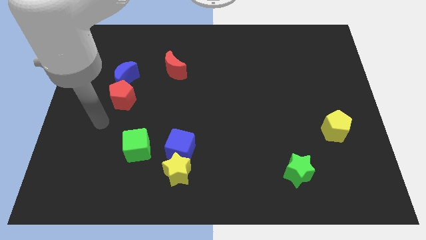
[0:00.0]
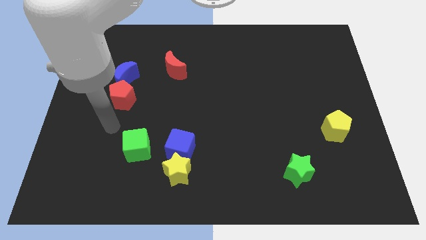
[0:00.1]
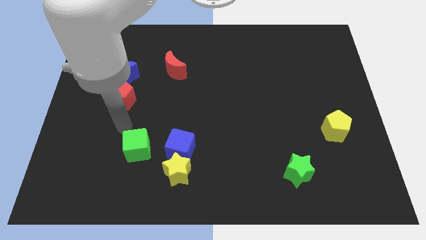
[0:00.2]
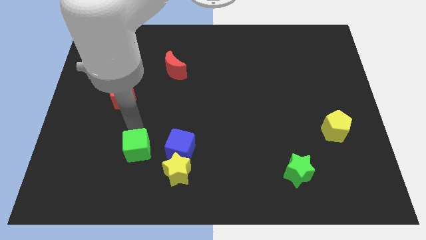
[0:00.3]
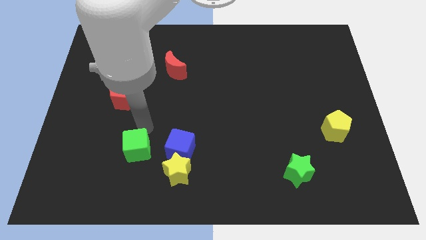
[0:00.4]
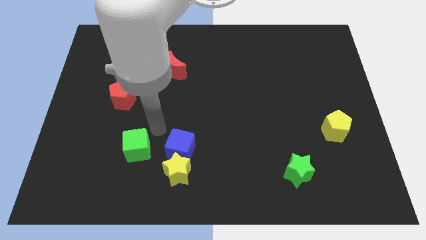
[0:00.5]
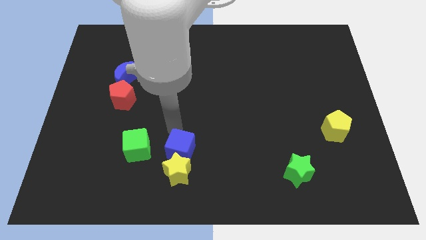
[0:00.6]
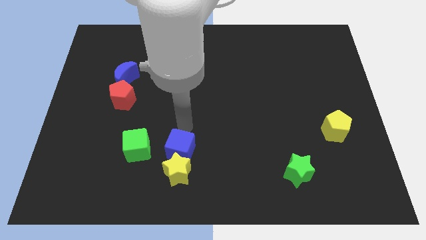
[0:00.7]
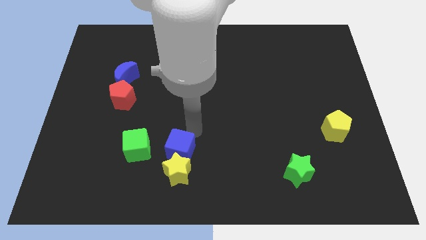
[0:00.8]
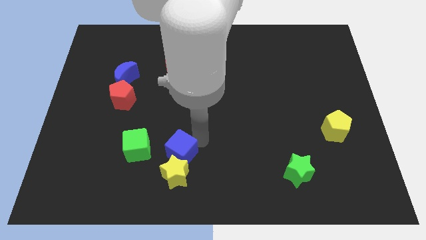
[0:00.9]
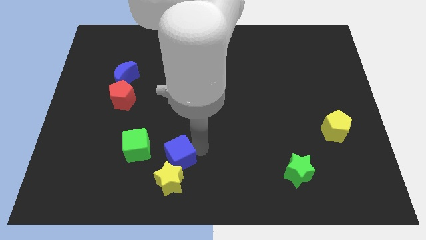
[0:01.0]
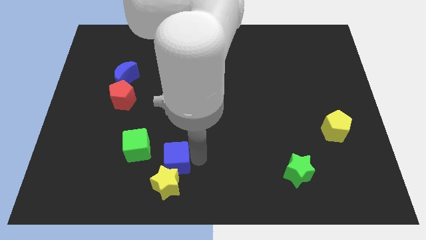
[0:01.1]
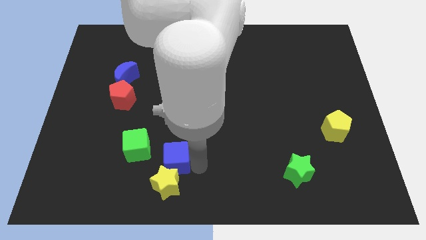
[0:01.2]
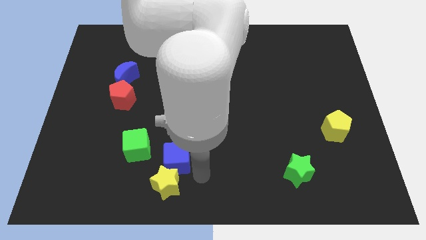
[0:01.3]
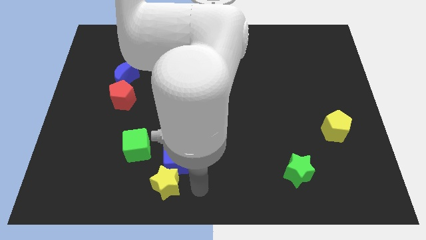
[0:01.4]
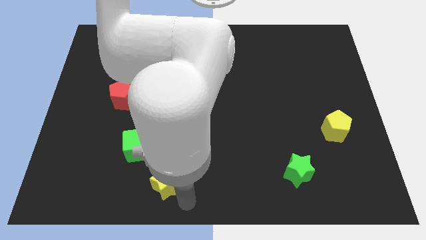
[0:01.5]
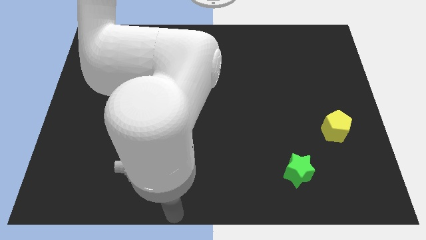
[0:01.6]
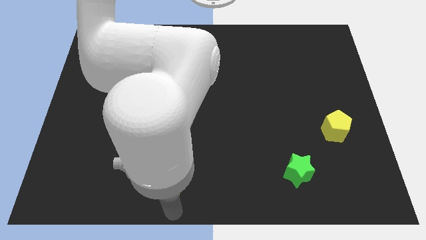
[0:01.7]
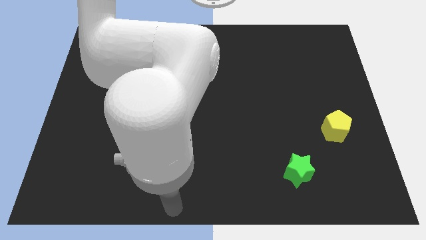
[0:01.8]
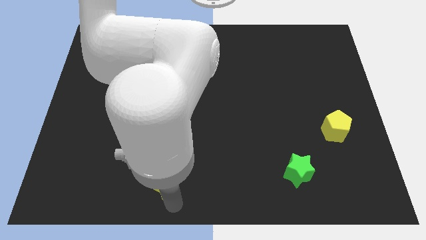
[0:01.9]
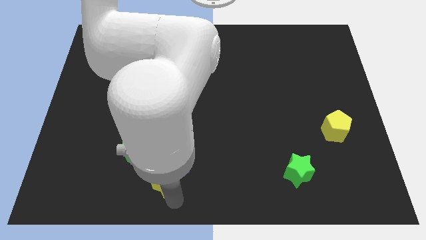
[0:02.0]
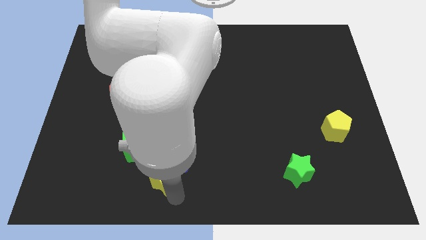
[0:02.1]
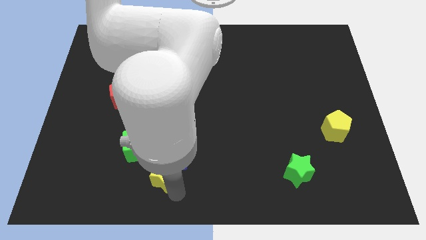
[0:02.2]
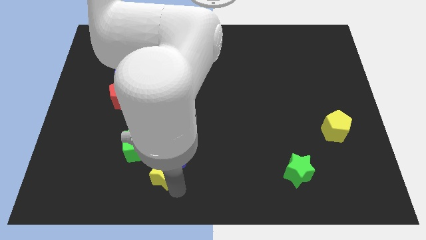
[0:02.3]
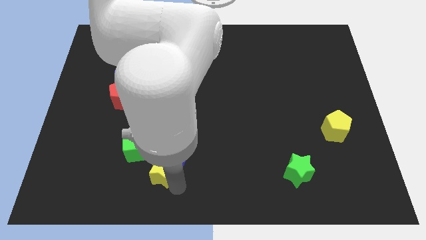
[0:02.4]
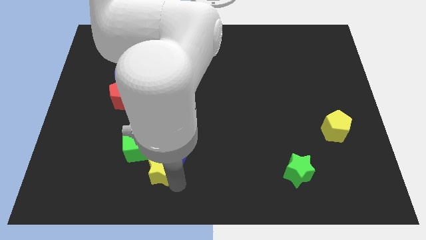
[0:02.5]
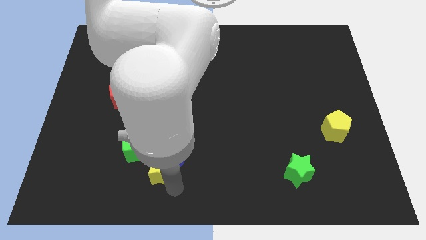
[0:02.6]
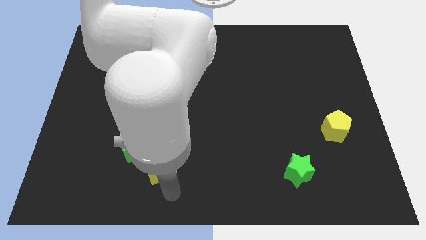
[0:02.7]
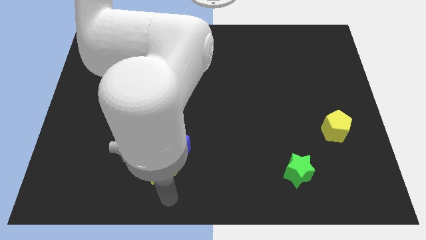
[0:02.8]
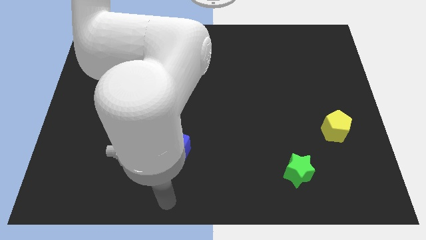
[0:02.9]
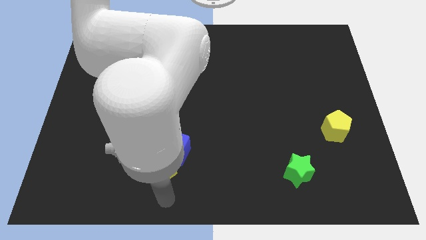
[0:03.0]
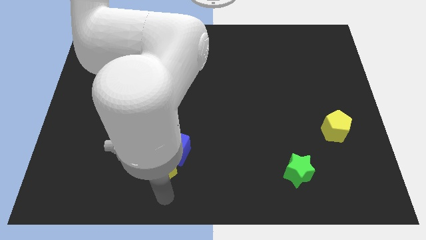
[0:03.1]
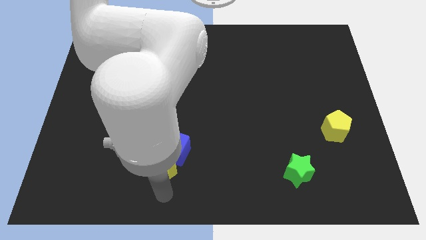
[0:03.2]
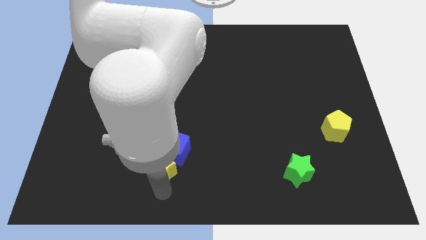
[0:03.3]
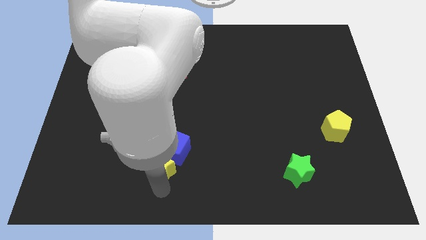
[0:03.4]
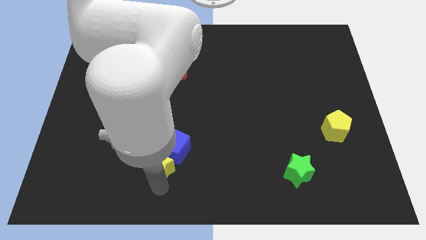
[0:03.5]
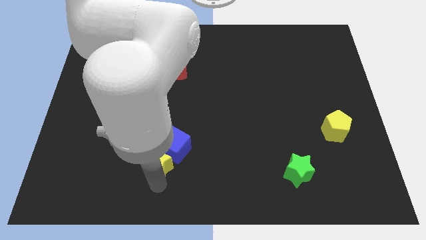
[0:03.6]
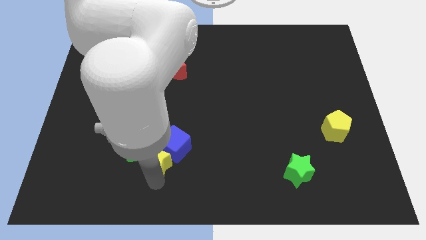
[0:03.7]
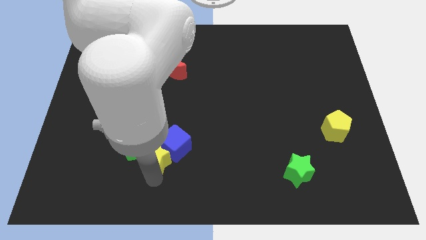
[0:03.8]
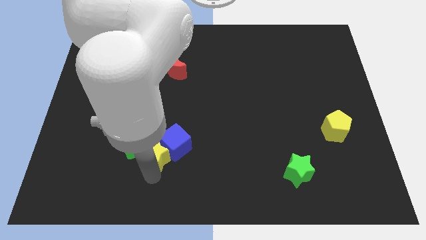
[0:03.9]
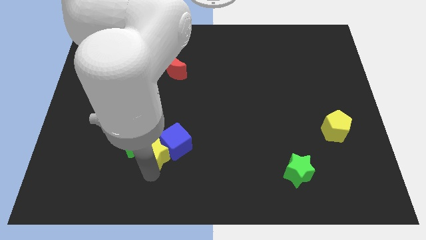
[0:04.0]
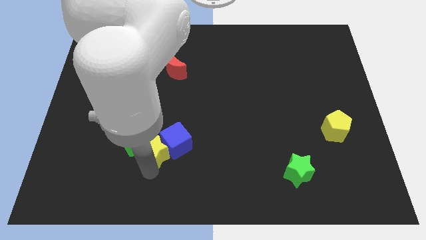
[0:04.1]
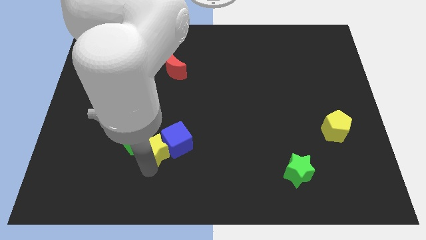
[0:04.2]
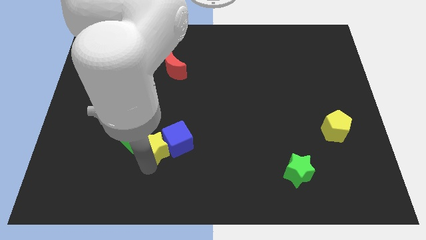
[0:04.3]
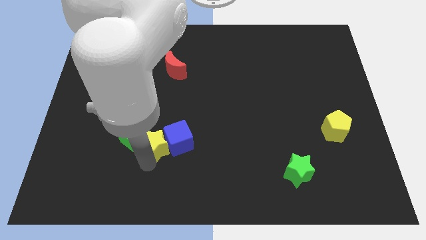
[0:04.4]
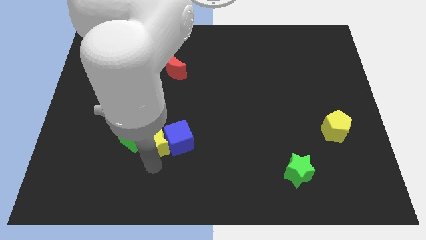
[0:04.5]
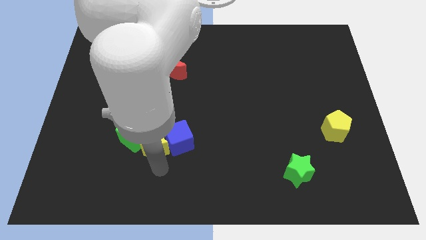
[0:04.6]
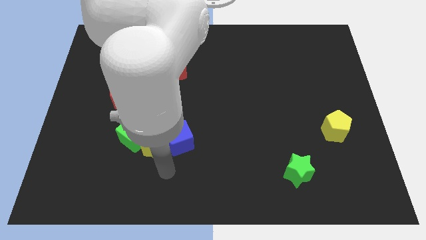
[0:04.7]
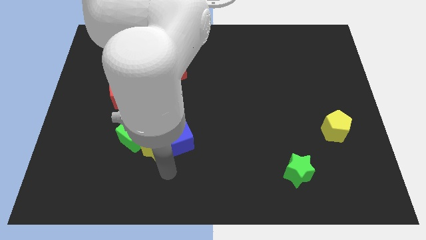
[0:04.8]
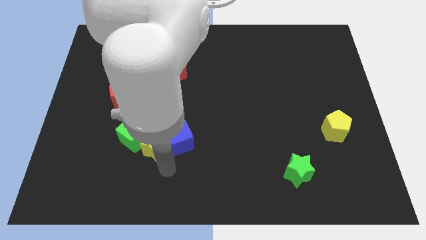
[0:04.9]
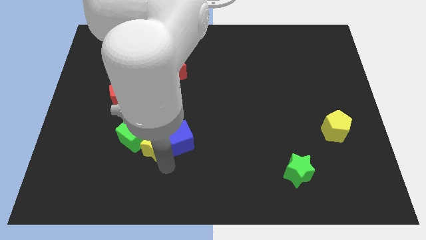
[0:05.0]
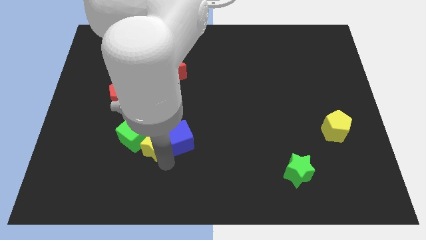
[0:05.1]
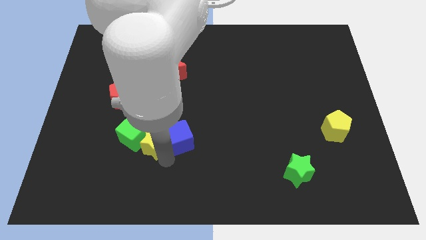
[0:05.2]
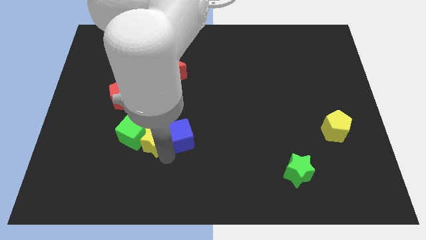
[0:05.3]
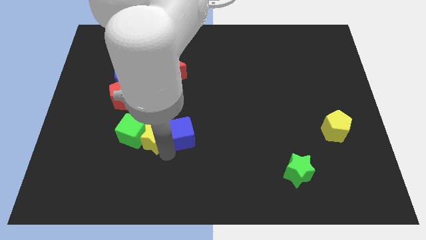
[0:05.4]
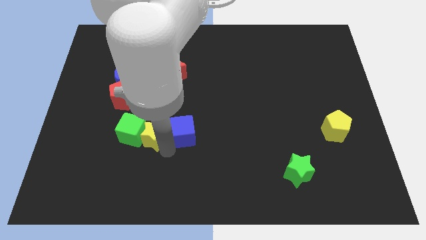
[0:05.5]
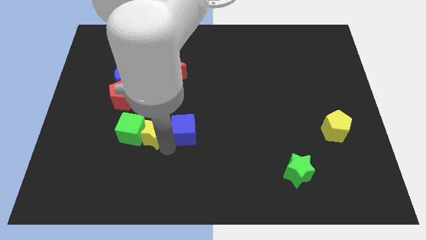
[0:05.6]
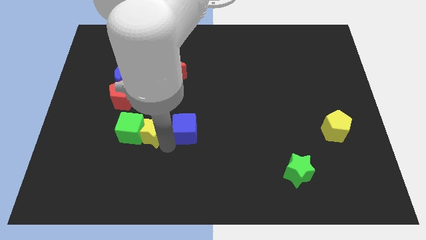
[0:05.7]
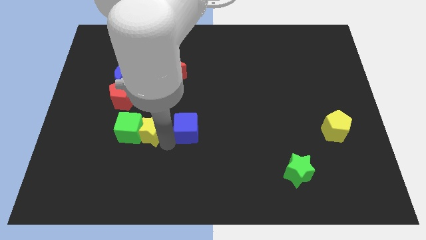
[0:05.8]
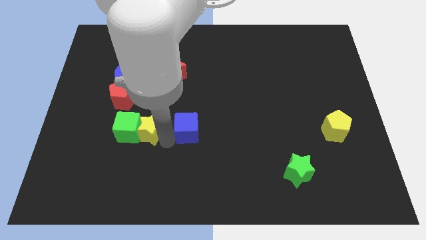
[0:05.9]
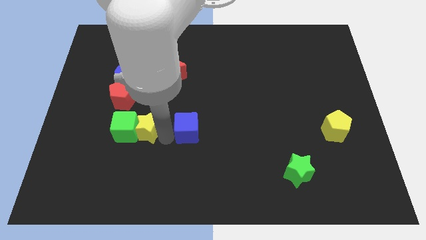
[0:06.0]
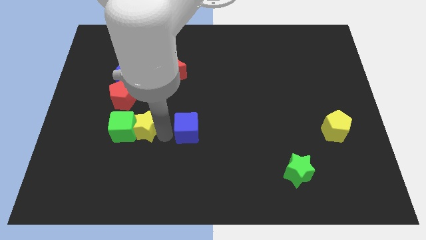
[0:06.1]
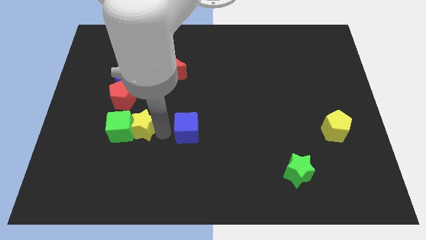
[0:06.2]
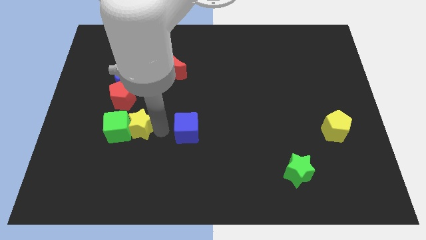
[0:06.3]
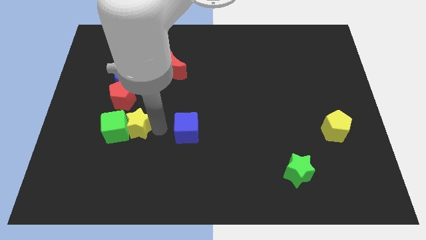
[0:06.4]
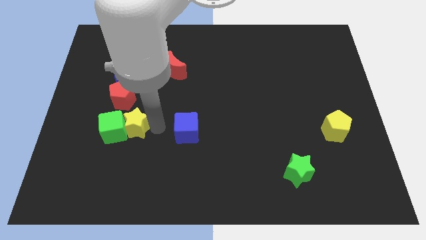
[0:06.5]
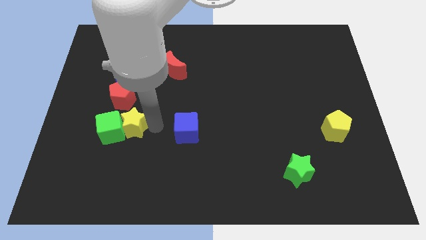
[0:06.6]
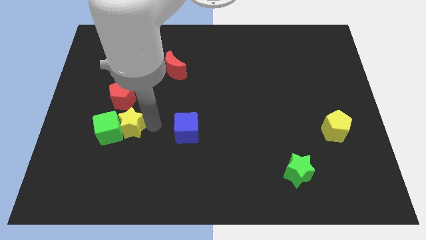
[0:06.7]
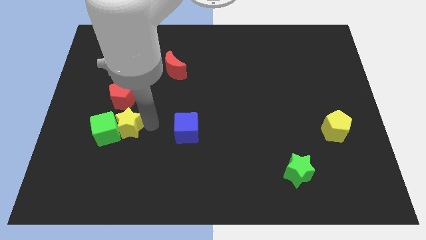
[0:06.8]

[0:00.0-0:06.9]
put the yellow star below the blue moon

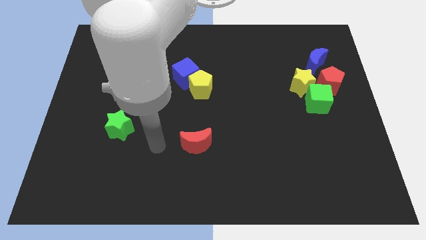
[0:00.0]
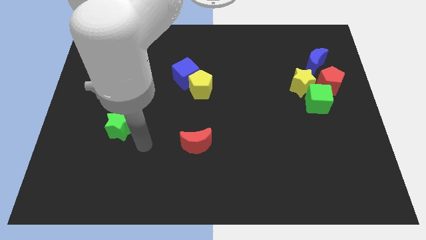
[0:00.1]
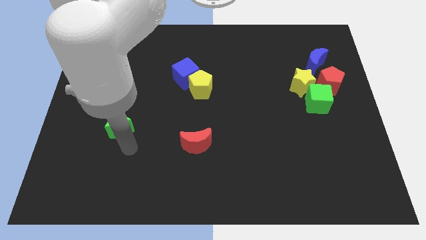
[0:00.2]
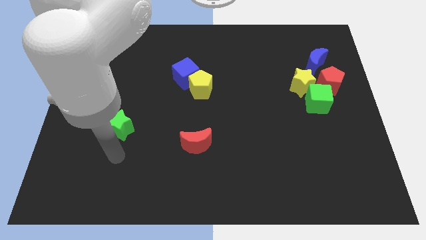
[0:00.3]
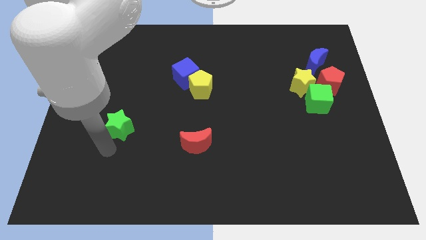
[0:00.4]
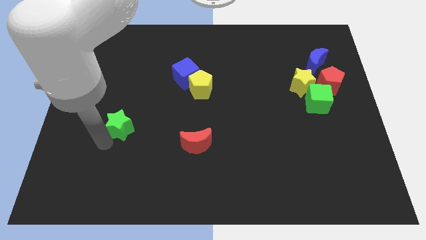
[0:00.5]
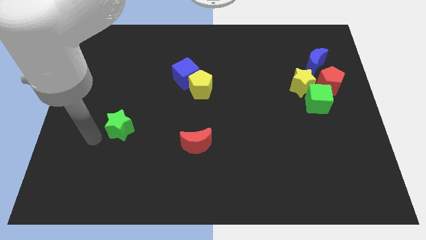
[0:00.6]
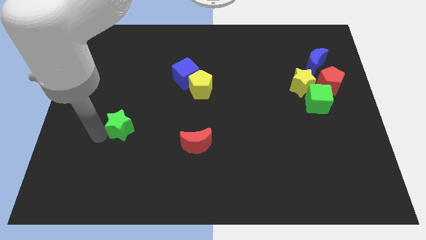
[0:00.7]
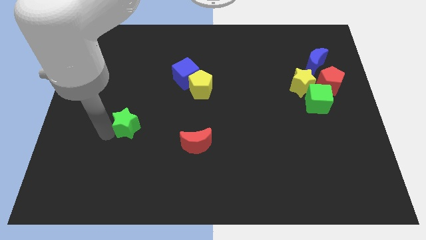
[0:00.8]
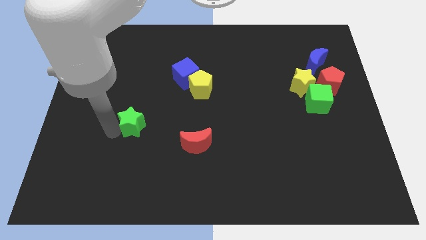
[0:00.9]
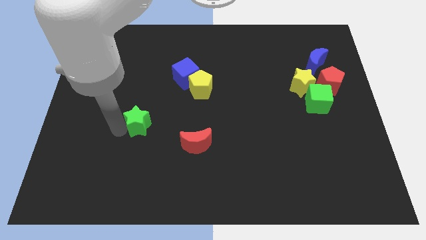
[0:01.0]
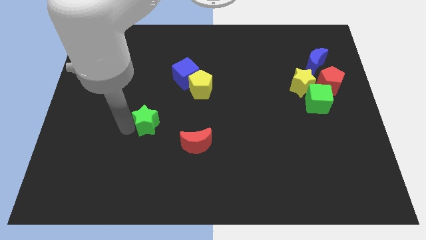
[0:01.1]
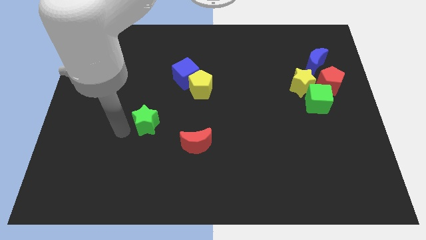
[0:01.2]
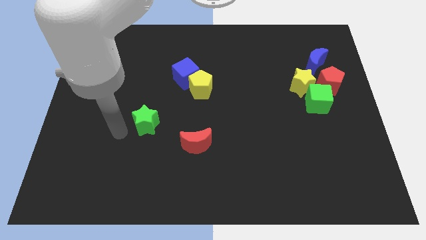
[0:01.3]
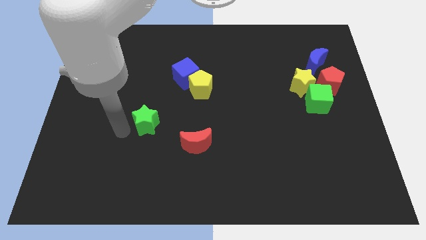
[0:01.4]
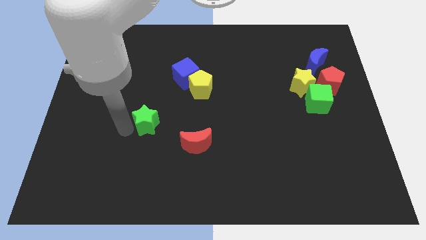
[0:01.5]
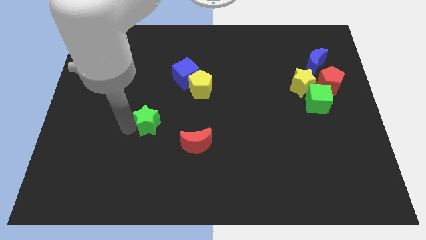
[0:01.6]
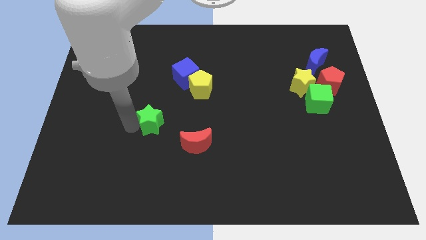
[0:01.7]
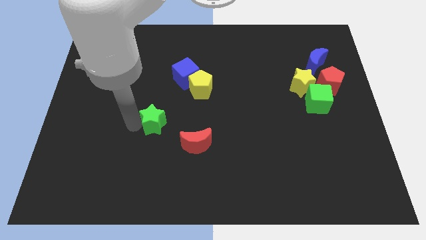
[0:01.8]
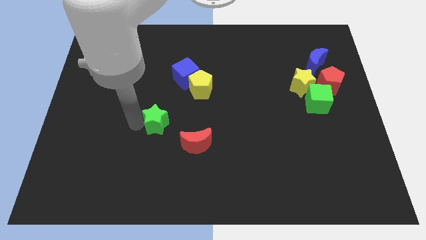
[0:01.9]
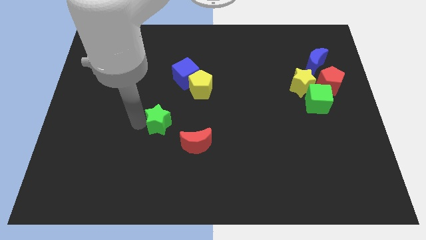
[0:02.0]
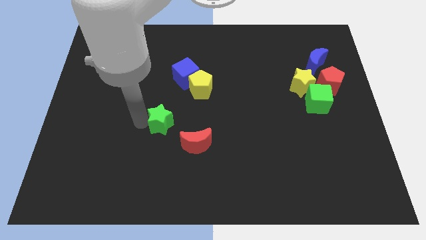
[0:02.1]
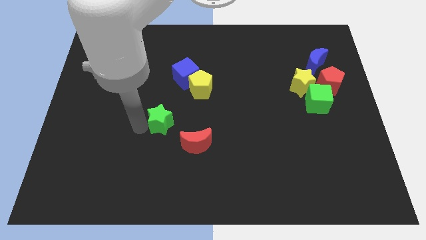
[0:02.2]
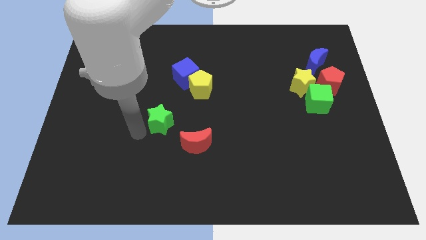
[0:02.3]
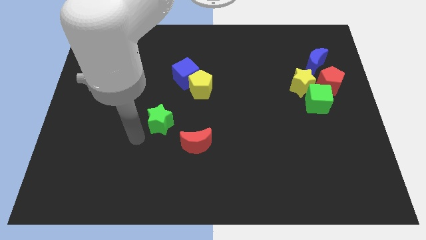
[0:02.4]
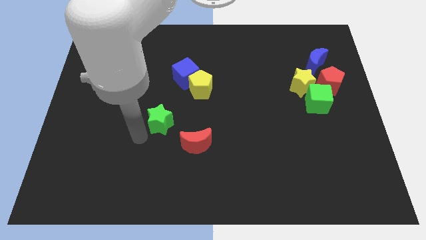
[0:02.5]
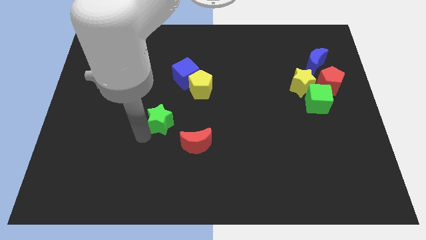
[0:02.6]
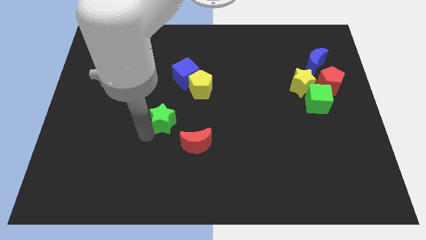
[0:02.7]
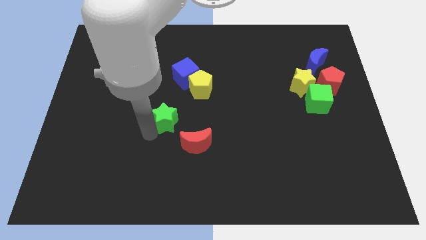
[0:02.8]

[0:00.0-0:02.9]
move the green star to the bottom of the blue cube
